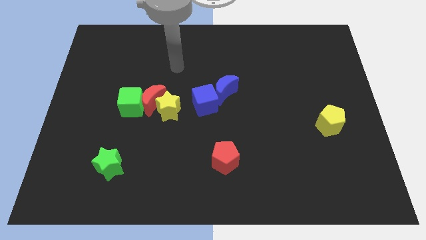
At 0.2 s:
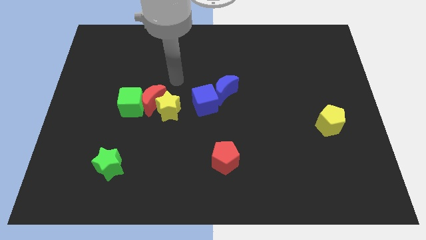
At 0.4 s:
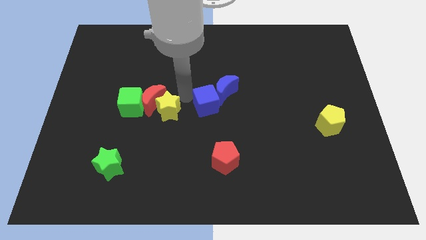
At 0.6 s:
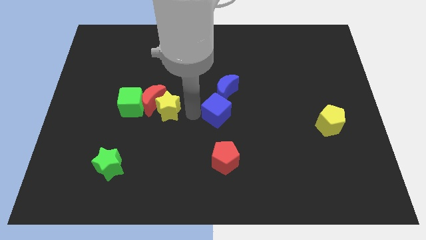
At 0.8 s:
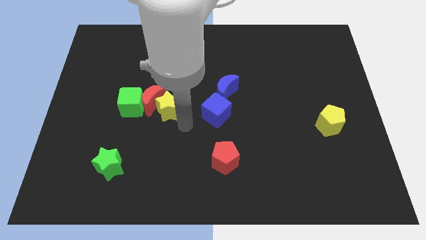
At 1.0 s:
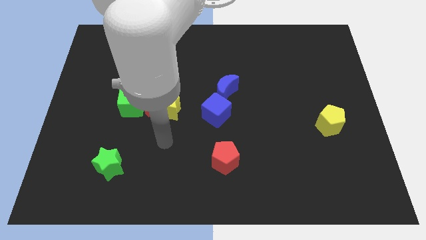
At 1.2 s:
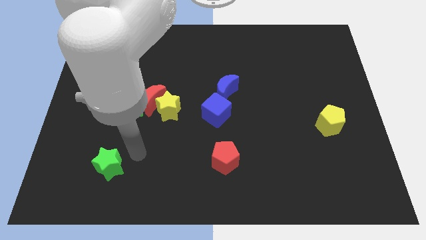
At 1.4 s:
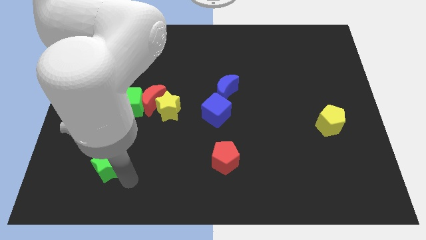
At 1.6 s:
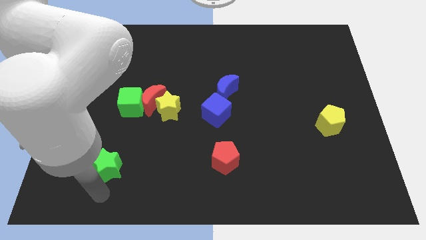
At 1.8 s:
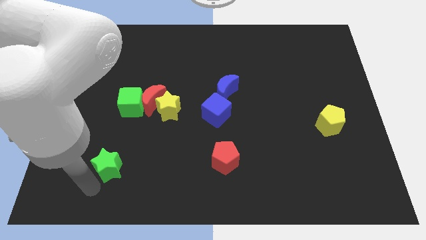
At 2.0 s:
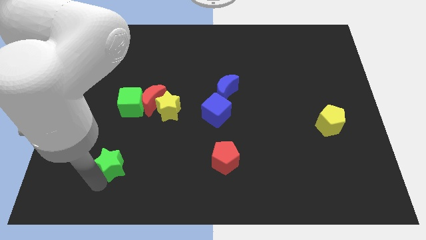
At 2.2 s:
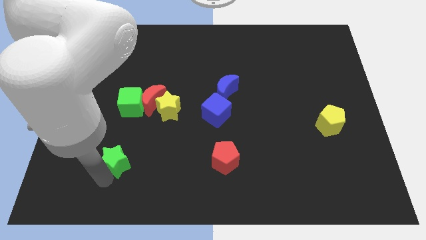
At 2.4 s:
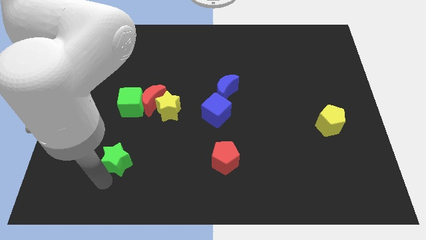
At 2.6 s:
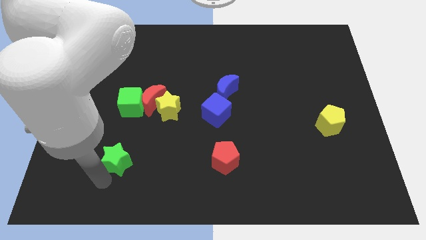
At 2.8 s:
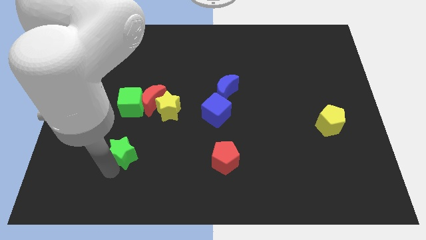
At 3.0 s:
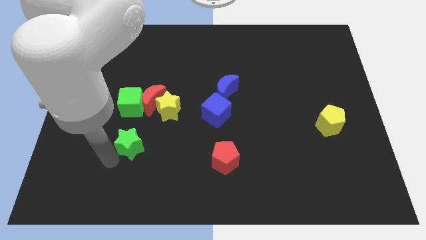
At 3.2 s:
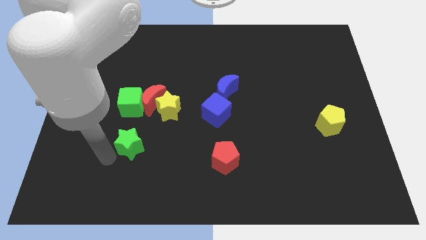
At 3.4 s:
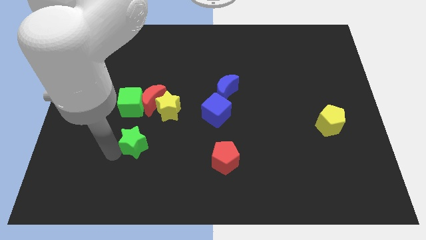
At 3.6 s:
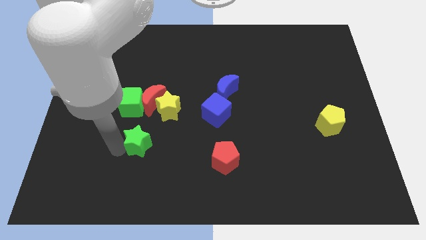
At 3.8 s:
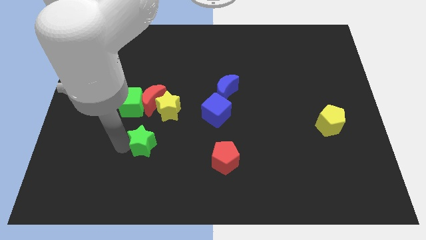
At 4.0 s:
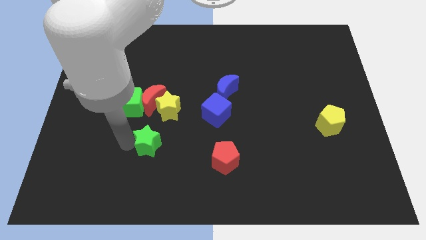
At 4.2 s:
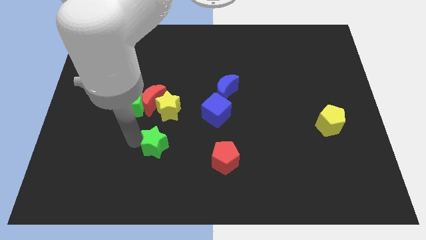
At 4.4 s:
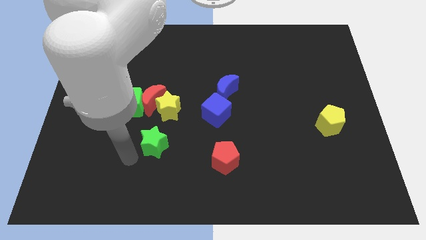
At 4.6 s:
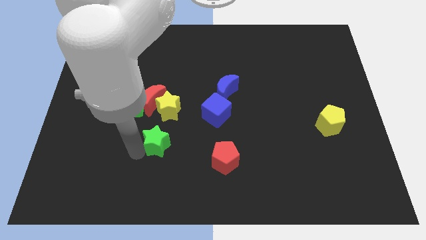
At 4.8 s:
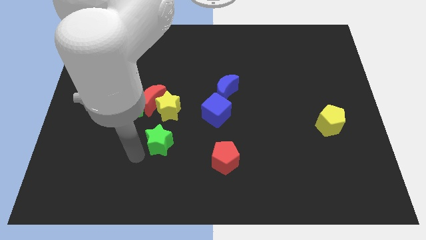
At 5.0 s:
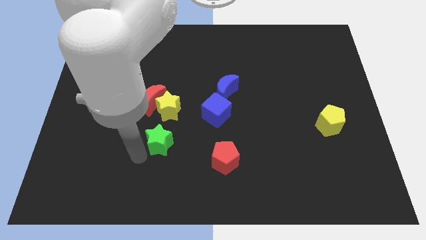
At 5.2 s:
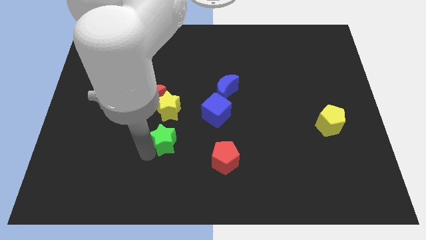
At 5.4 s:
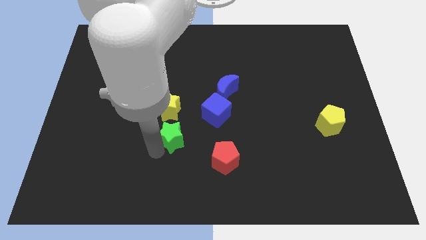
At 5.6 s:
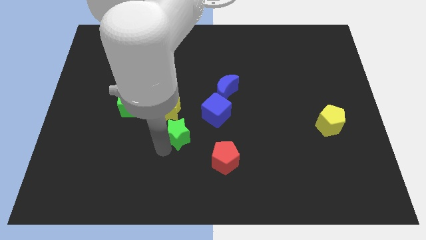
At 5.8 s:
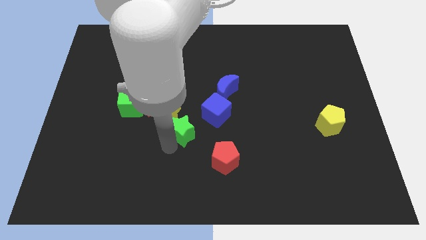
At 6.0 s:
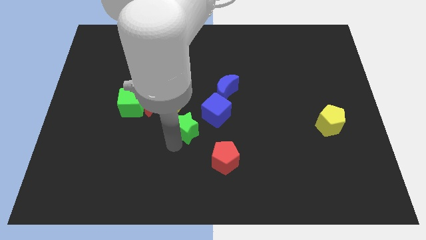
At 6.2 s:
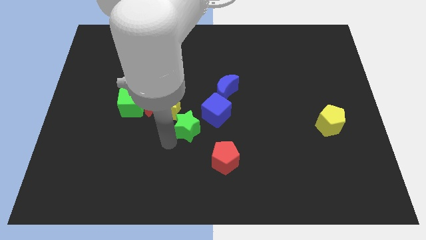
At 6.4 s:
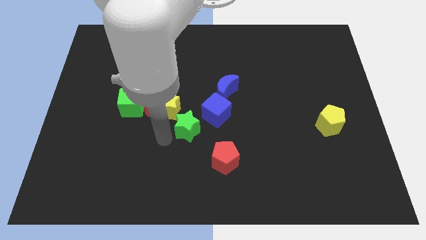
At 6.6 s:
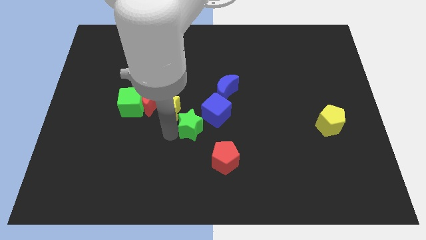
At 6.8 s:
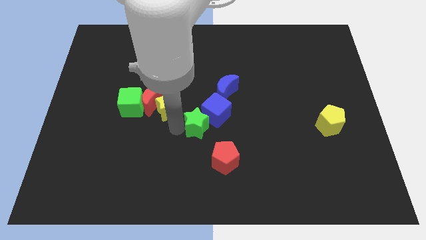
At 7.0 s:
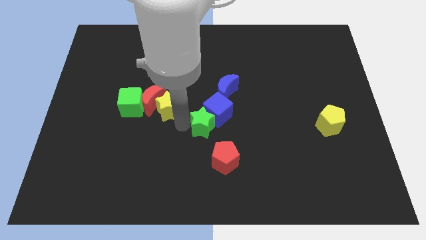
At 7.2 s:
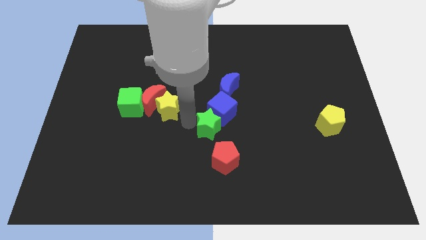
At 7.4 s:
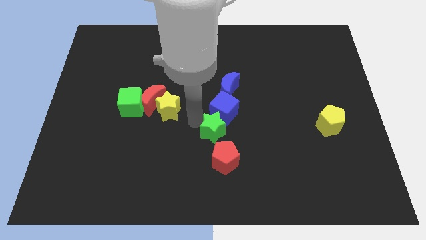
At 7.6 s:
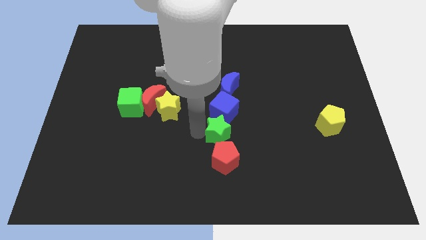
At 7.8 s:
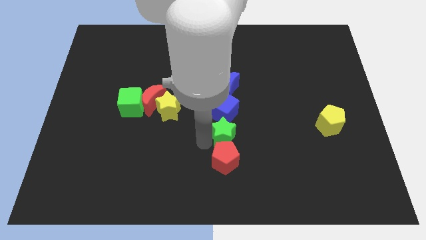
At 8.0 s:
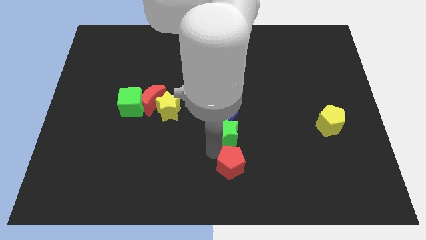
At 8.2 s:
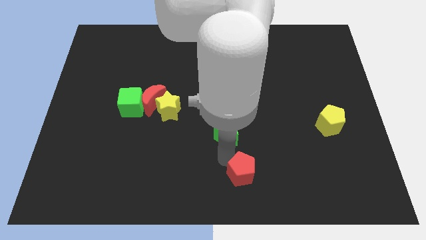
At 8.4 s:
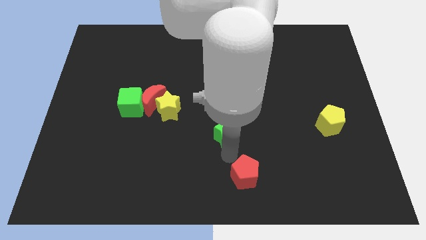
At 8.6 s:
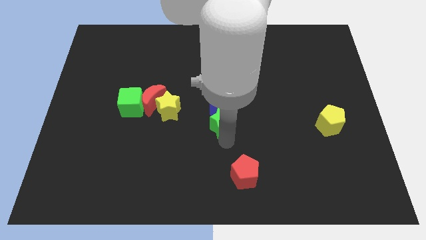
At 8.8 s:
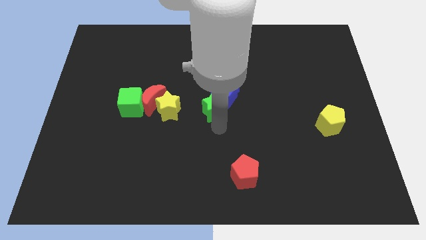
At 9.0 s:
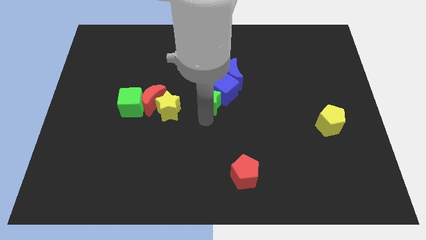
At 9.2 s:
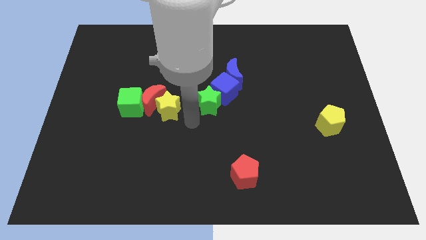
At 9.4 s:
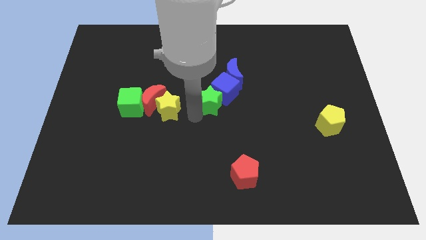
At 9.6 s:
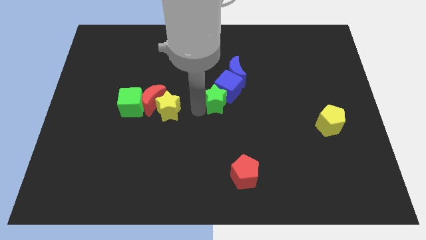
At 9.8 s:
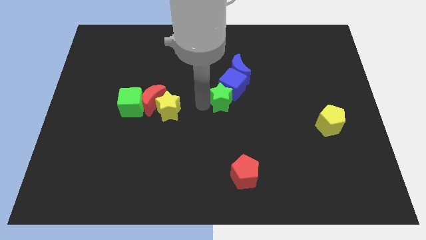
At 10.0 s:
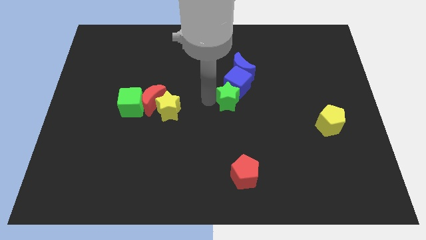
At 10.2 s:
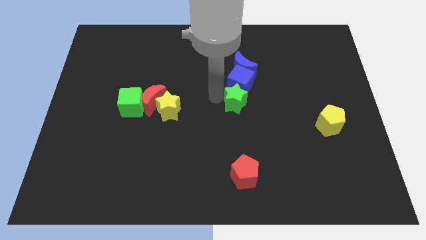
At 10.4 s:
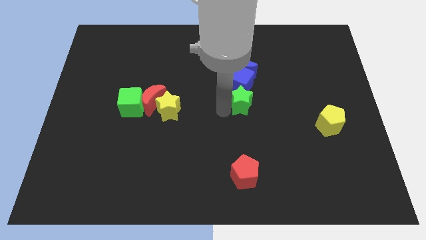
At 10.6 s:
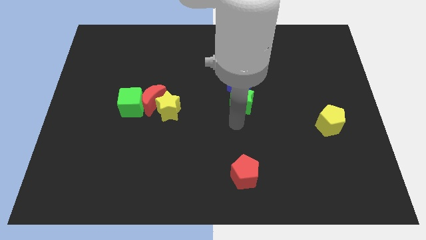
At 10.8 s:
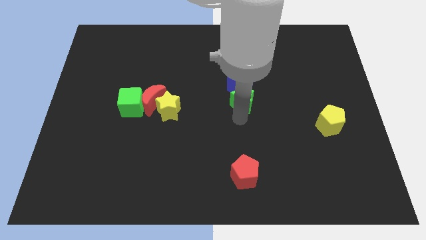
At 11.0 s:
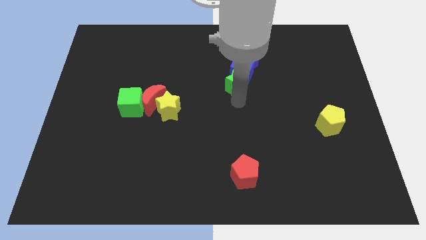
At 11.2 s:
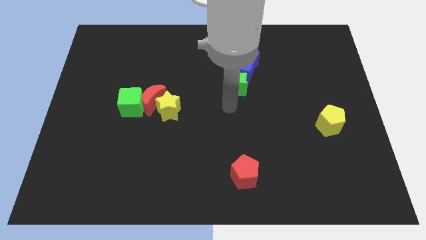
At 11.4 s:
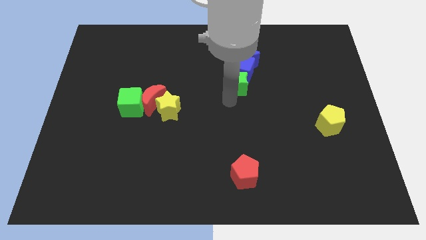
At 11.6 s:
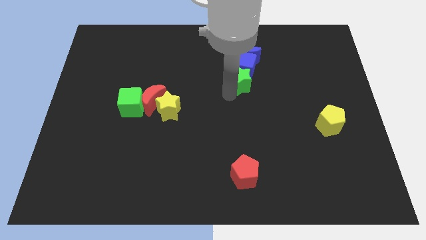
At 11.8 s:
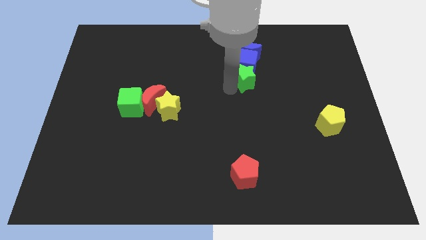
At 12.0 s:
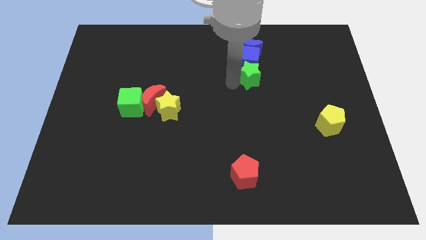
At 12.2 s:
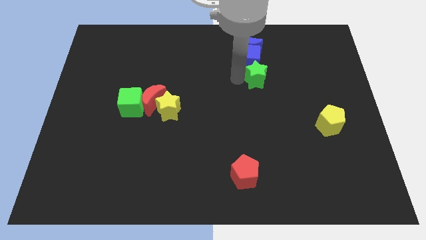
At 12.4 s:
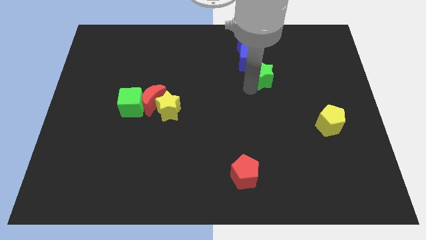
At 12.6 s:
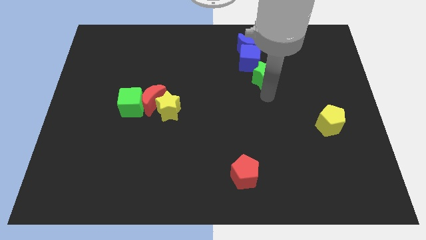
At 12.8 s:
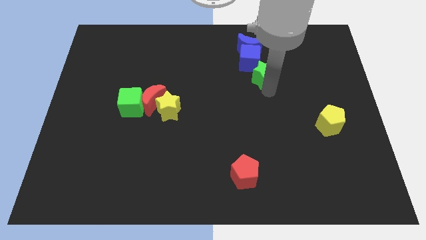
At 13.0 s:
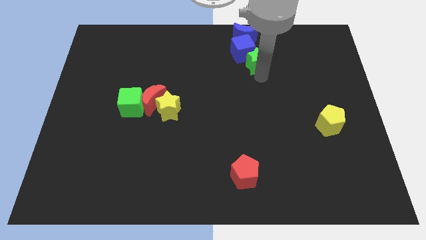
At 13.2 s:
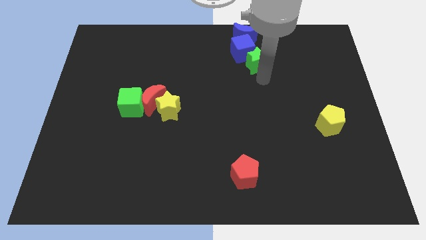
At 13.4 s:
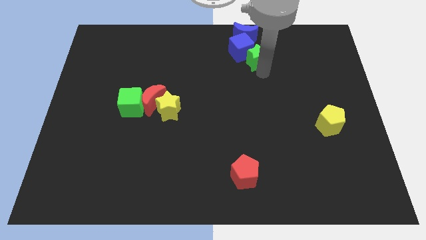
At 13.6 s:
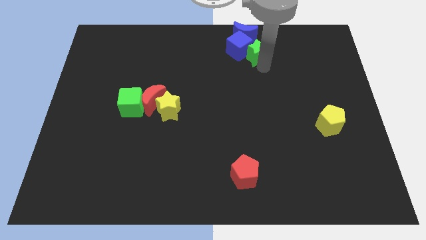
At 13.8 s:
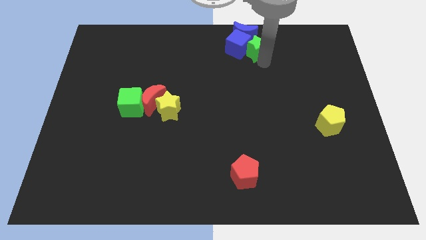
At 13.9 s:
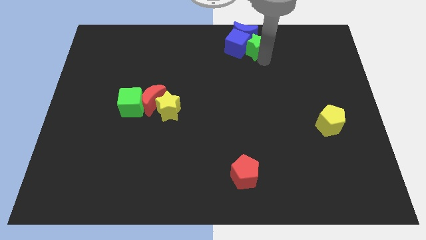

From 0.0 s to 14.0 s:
move the green star next to the blue moon

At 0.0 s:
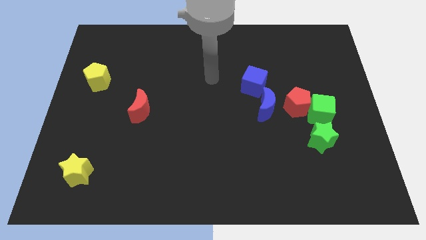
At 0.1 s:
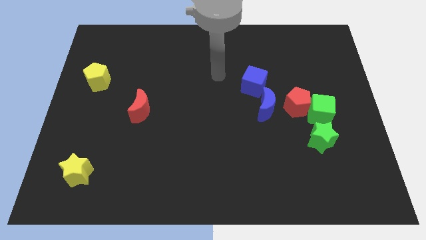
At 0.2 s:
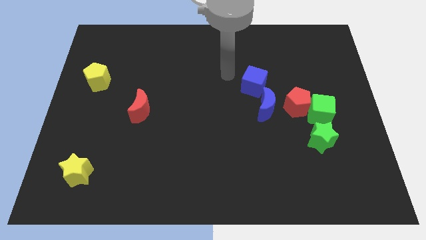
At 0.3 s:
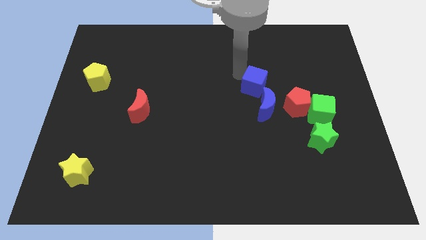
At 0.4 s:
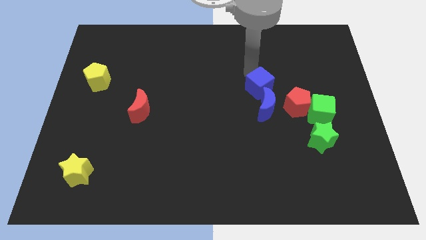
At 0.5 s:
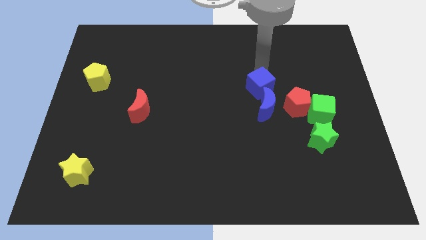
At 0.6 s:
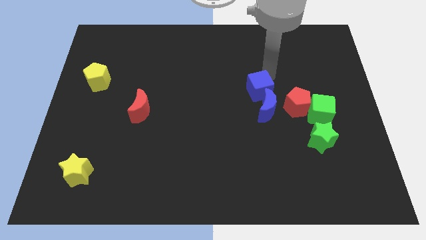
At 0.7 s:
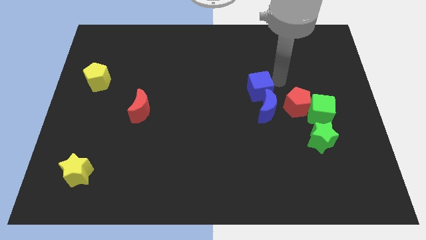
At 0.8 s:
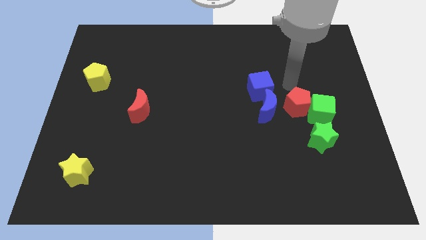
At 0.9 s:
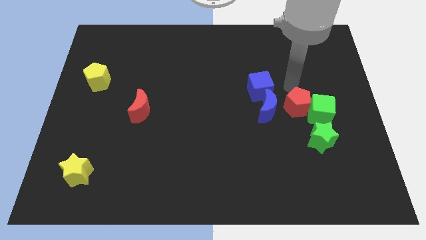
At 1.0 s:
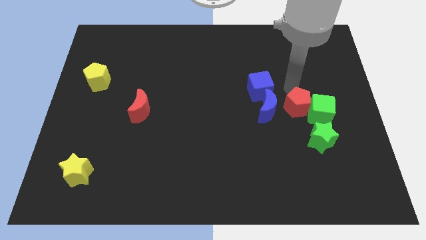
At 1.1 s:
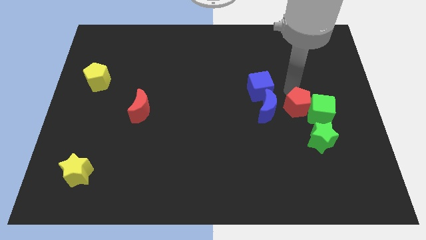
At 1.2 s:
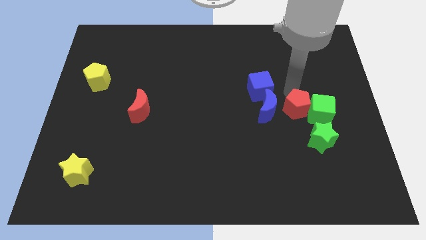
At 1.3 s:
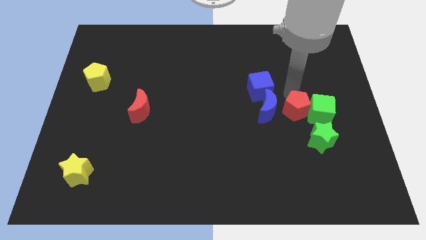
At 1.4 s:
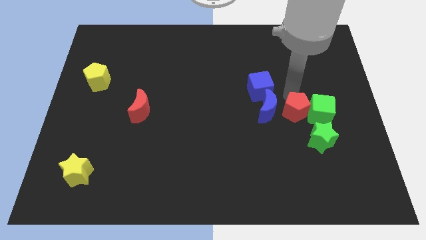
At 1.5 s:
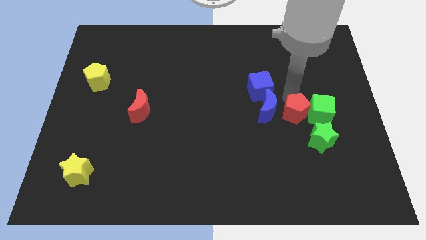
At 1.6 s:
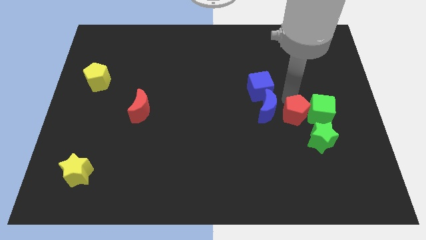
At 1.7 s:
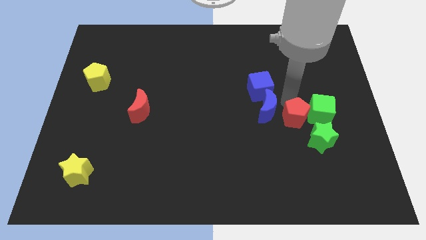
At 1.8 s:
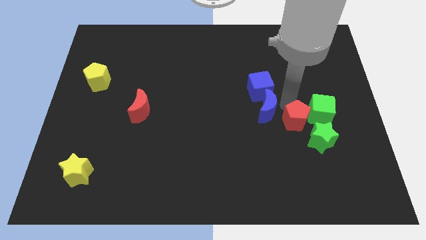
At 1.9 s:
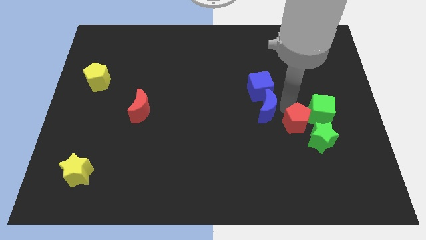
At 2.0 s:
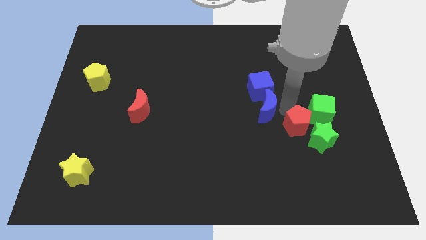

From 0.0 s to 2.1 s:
move the red pentagon close to the green star
